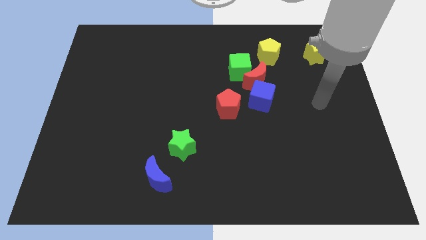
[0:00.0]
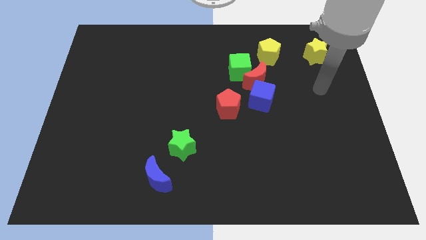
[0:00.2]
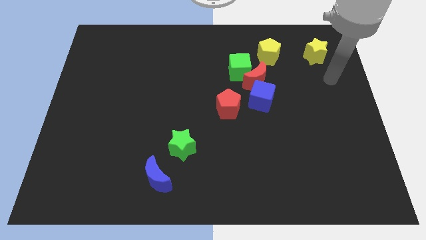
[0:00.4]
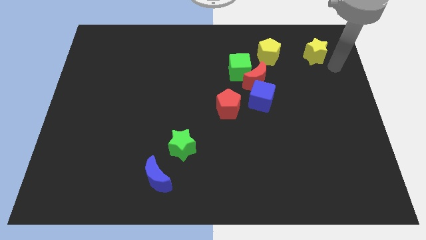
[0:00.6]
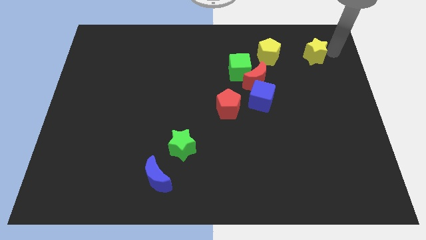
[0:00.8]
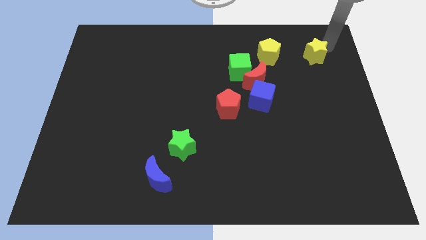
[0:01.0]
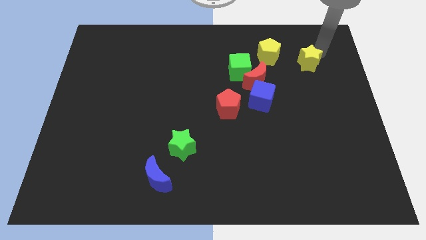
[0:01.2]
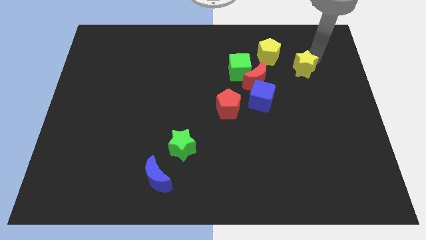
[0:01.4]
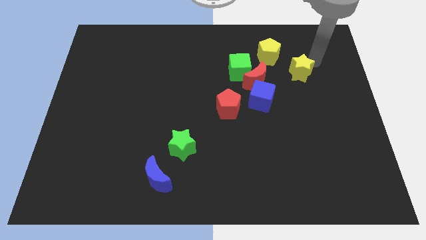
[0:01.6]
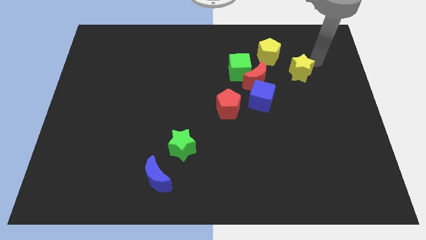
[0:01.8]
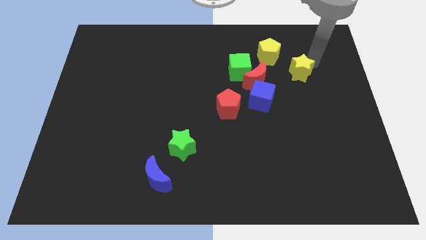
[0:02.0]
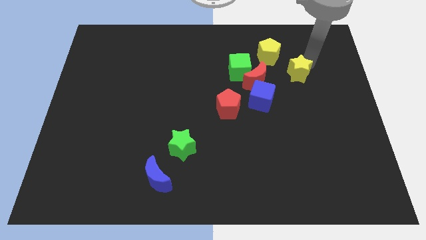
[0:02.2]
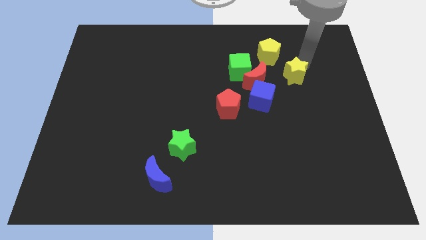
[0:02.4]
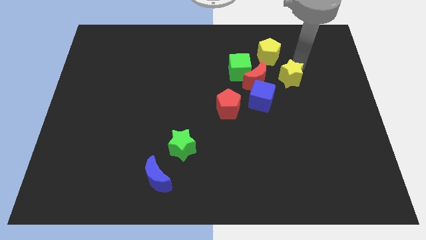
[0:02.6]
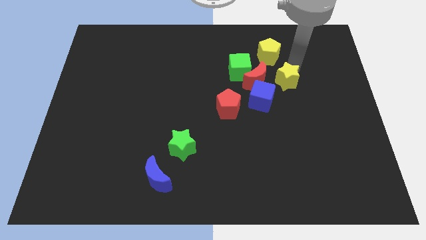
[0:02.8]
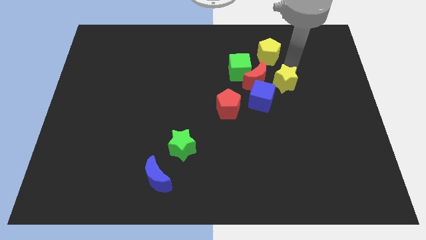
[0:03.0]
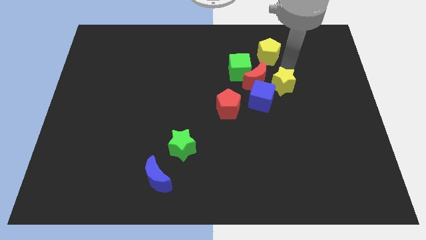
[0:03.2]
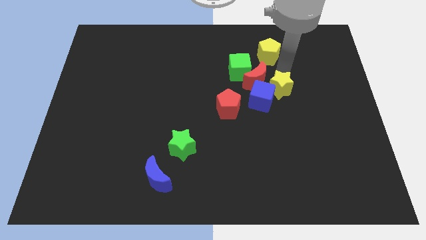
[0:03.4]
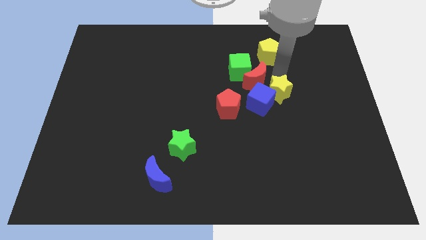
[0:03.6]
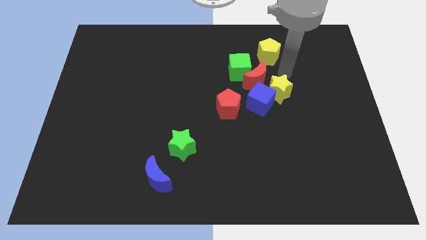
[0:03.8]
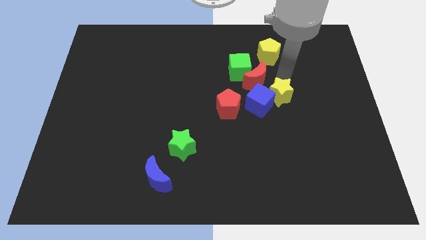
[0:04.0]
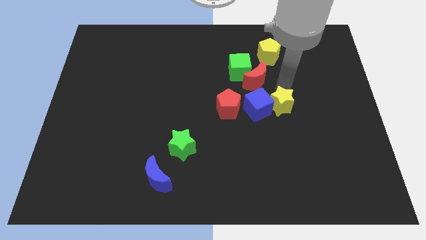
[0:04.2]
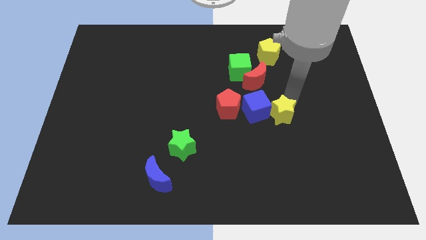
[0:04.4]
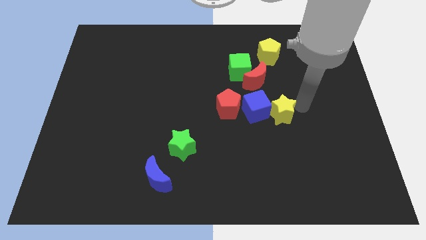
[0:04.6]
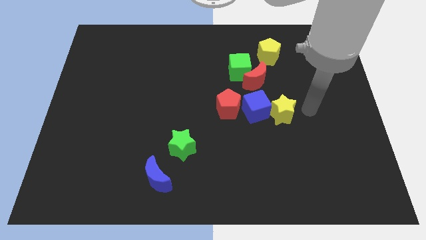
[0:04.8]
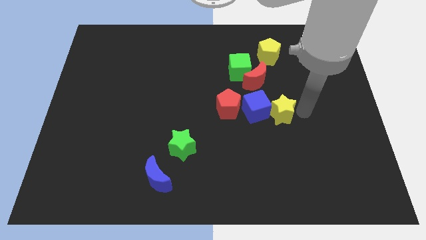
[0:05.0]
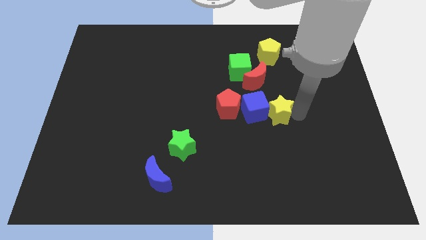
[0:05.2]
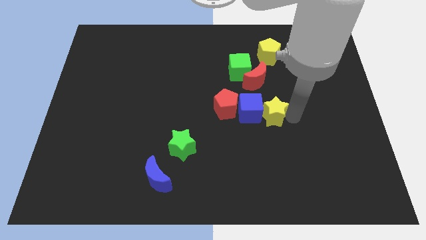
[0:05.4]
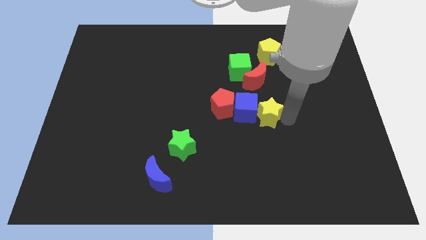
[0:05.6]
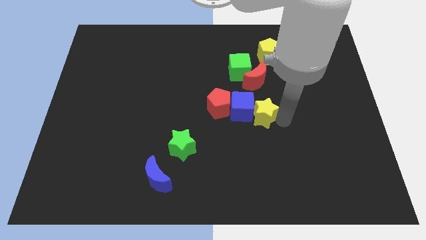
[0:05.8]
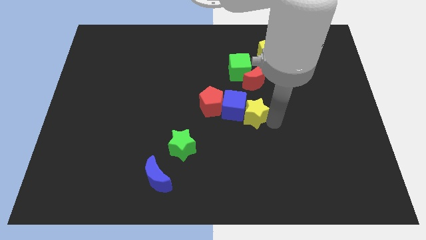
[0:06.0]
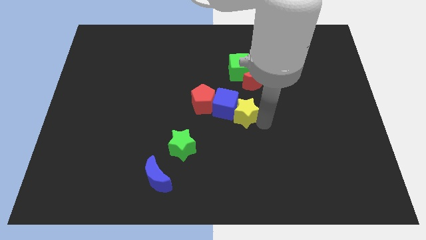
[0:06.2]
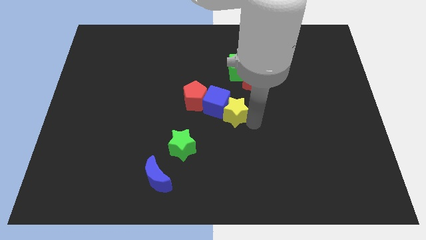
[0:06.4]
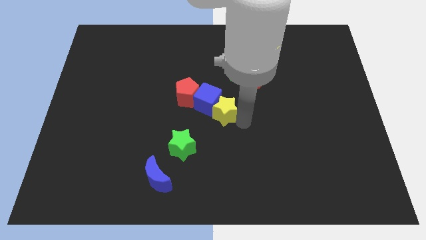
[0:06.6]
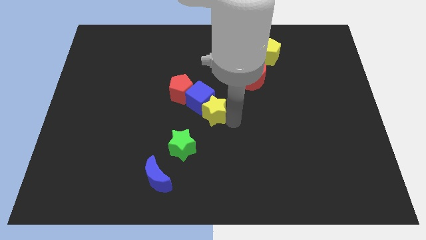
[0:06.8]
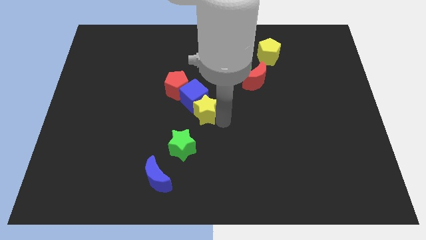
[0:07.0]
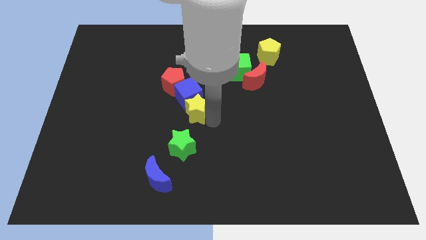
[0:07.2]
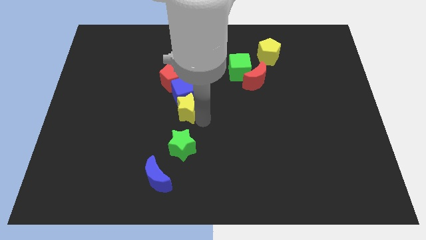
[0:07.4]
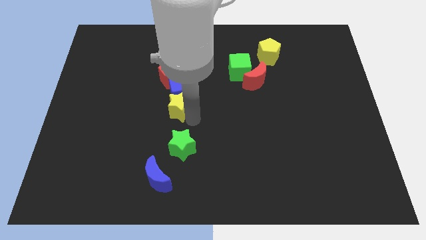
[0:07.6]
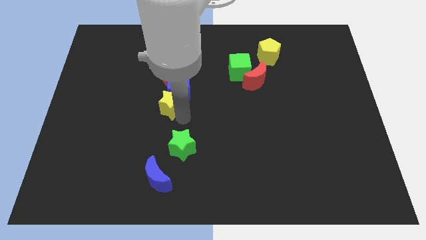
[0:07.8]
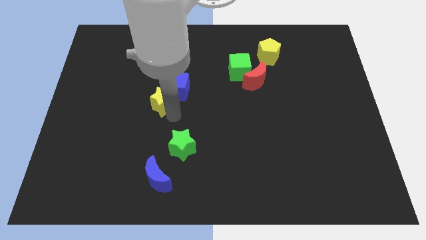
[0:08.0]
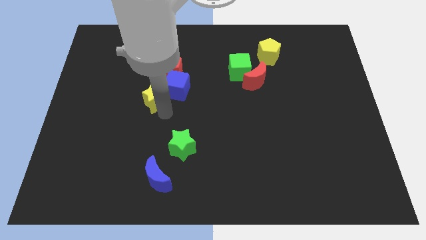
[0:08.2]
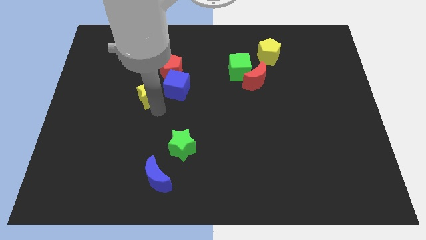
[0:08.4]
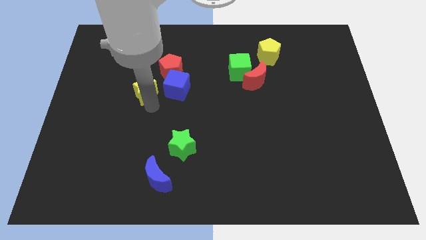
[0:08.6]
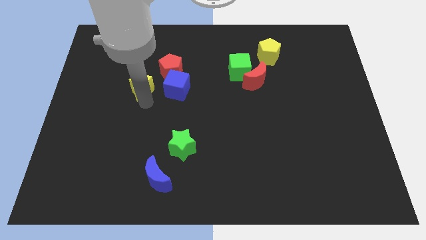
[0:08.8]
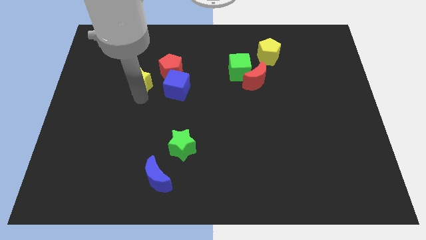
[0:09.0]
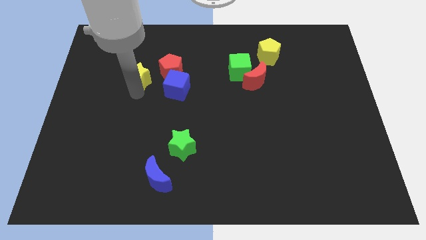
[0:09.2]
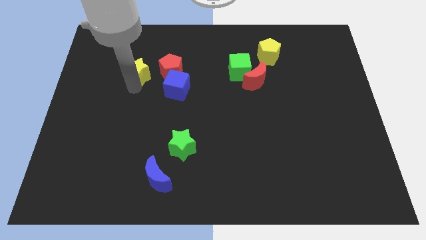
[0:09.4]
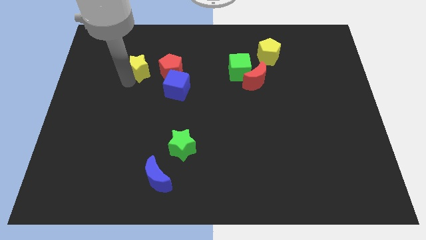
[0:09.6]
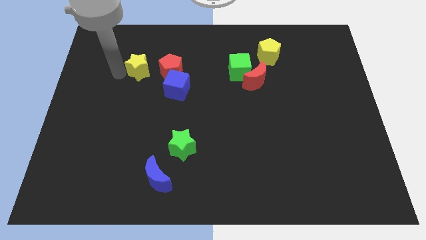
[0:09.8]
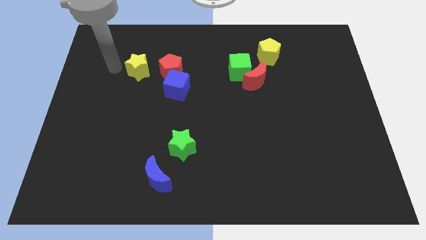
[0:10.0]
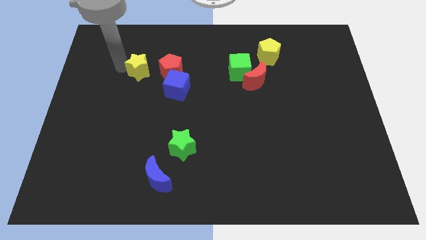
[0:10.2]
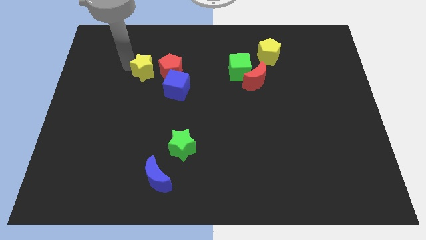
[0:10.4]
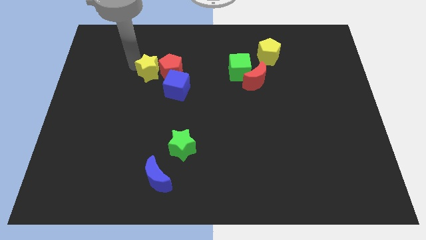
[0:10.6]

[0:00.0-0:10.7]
slide the yellow star to the red pentagon

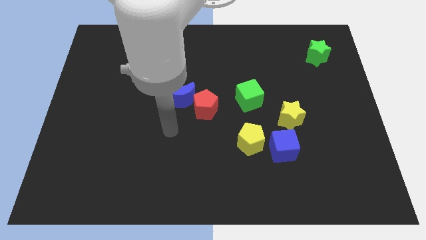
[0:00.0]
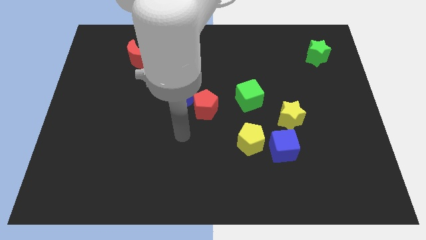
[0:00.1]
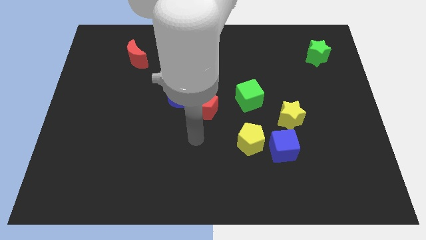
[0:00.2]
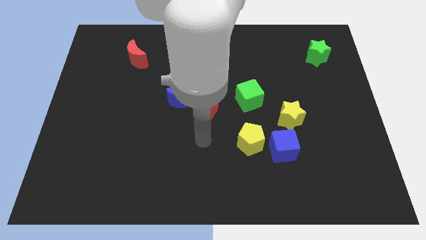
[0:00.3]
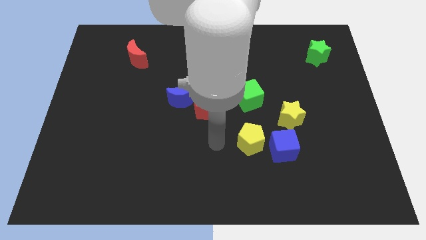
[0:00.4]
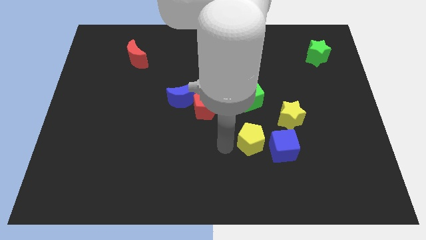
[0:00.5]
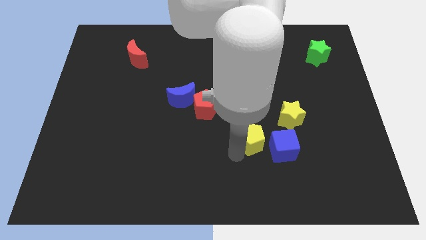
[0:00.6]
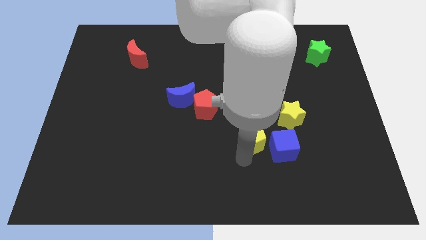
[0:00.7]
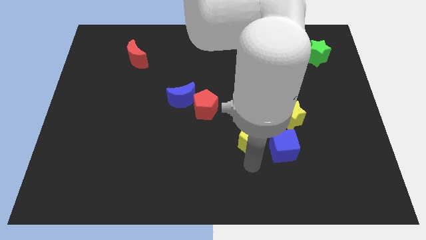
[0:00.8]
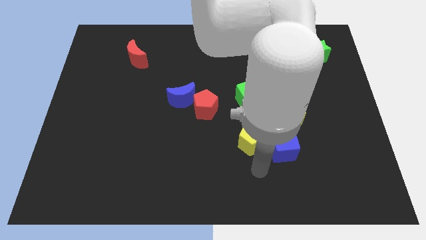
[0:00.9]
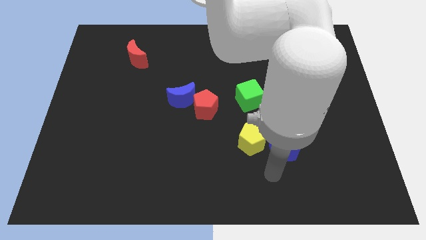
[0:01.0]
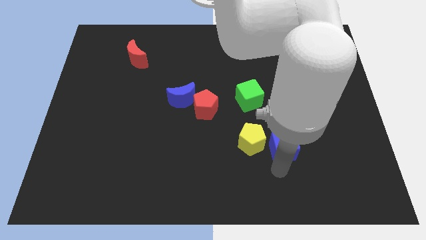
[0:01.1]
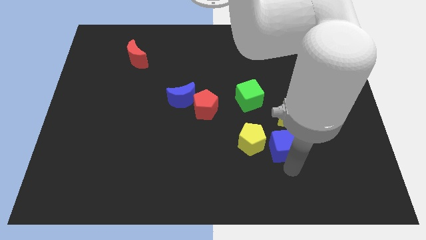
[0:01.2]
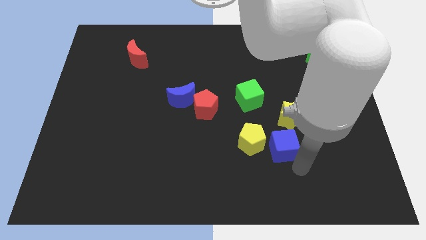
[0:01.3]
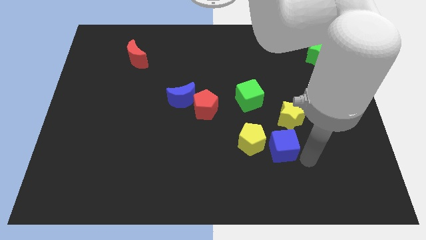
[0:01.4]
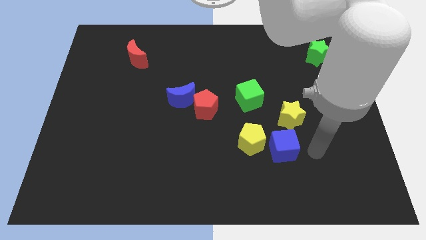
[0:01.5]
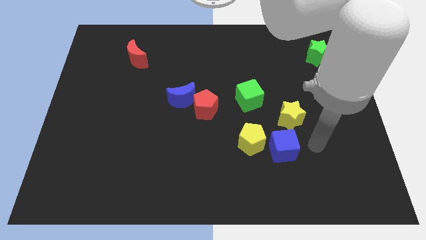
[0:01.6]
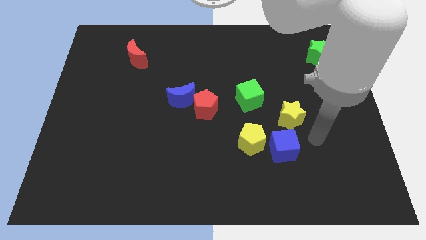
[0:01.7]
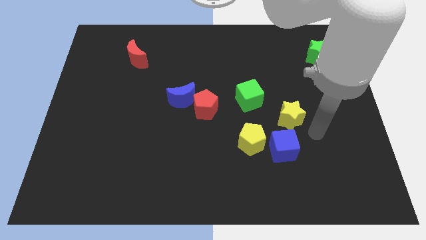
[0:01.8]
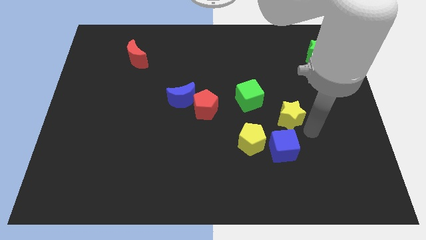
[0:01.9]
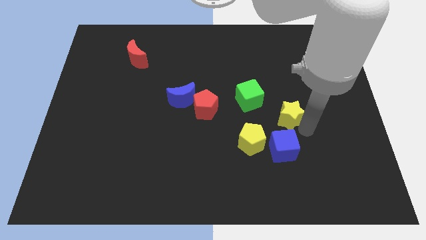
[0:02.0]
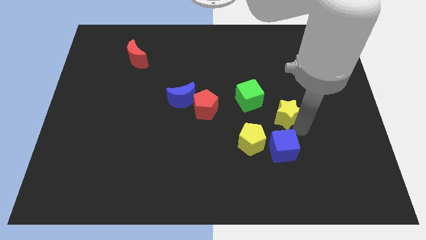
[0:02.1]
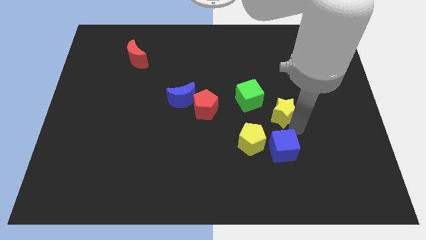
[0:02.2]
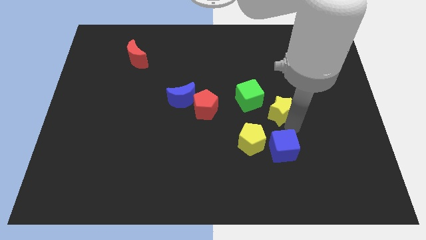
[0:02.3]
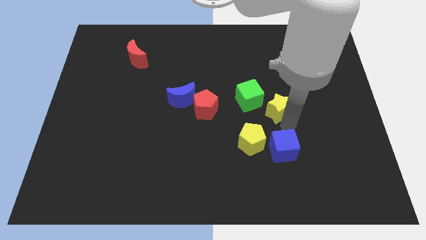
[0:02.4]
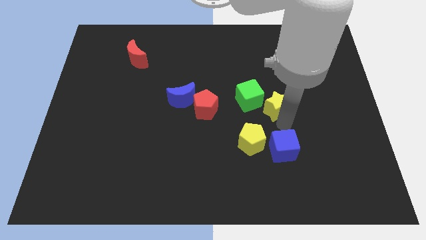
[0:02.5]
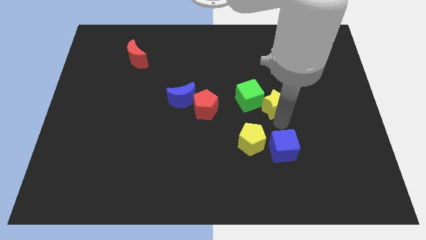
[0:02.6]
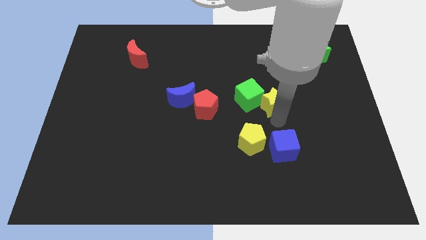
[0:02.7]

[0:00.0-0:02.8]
slide the yellow star next to the green cube

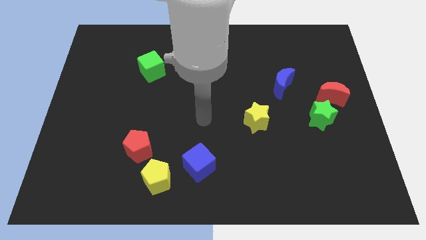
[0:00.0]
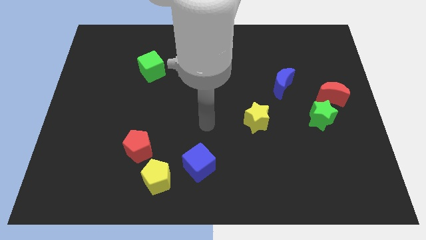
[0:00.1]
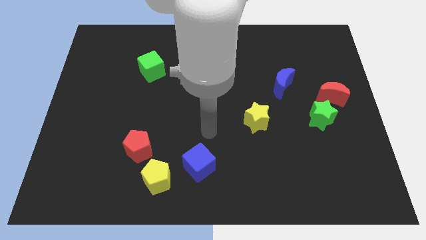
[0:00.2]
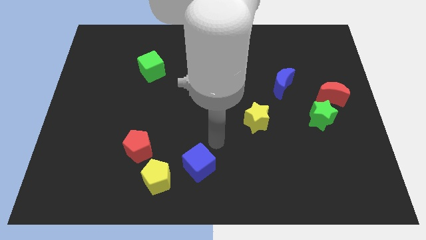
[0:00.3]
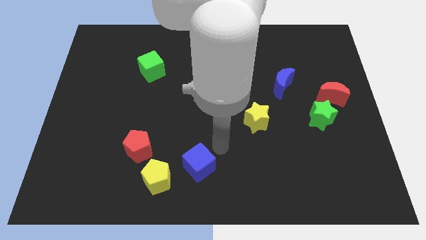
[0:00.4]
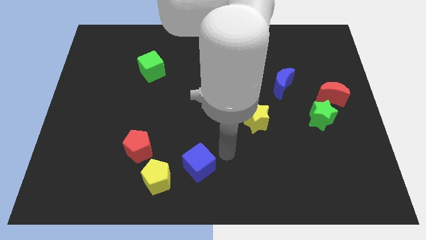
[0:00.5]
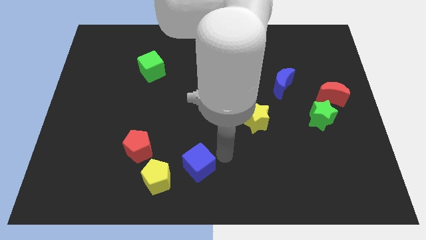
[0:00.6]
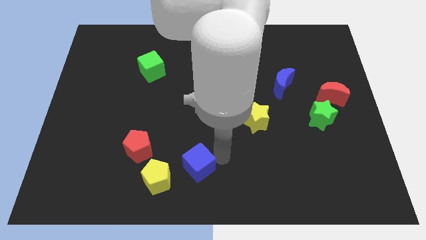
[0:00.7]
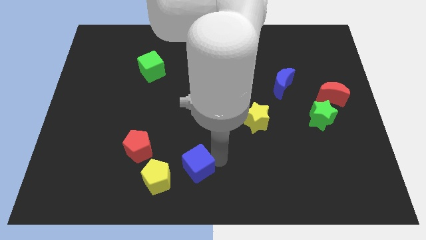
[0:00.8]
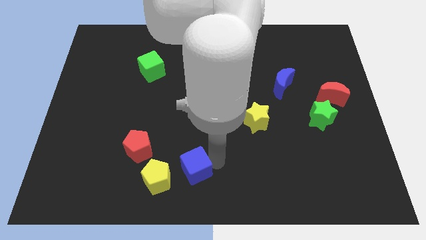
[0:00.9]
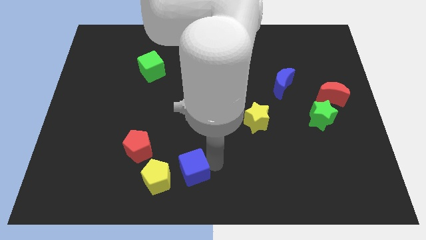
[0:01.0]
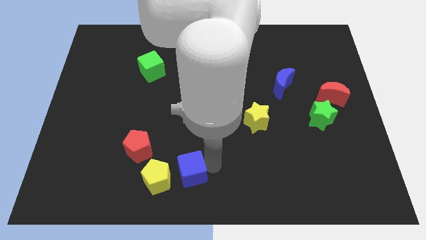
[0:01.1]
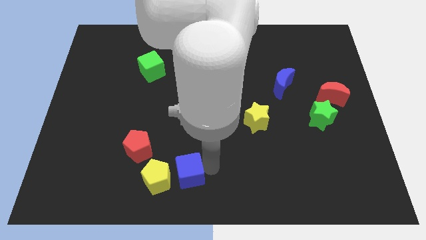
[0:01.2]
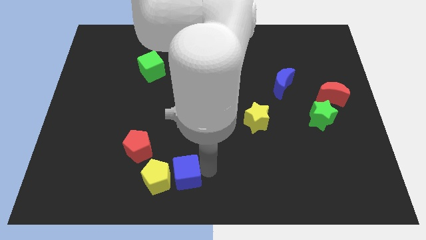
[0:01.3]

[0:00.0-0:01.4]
slide the blue cube towards the yellow pentagon
